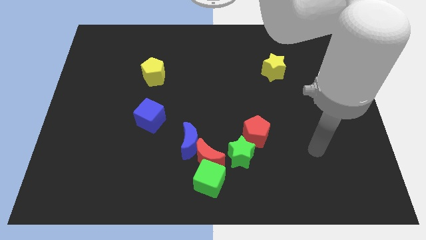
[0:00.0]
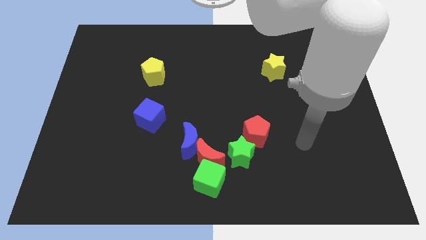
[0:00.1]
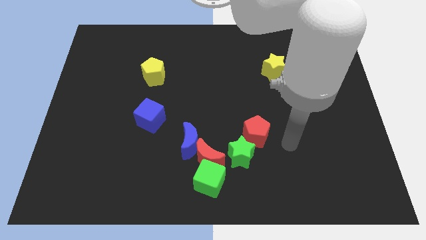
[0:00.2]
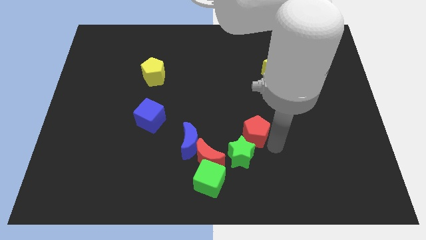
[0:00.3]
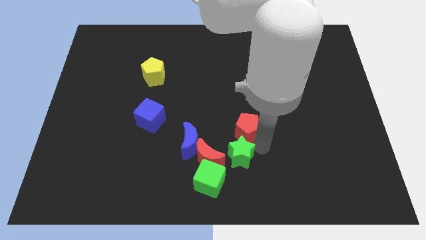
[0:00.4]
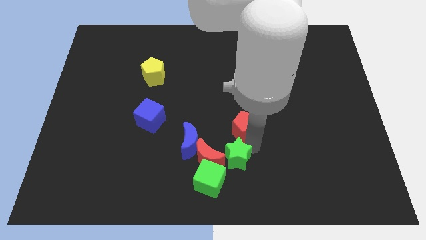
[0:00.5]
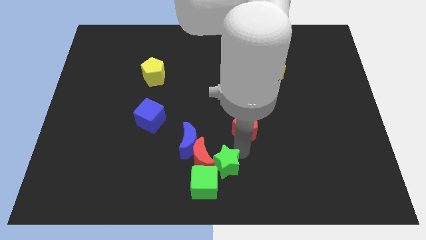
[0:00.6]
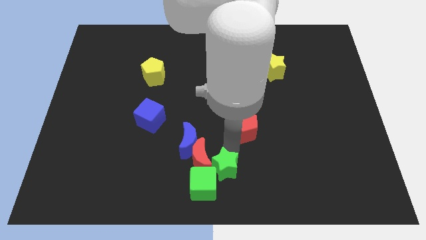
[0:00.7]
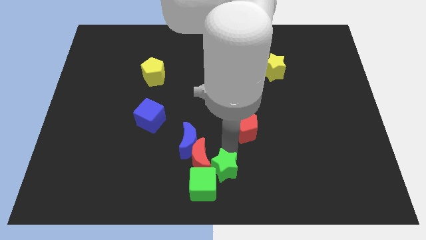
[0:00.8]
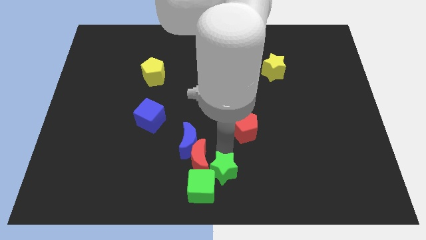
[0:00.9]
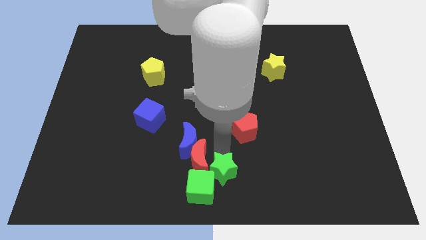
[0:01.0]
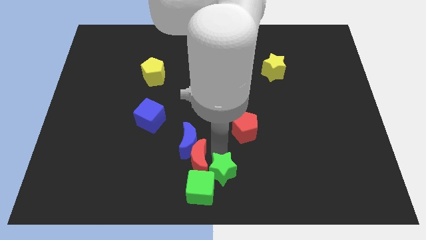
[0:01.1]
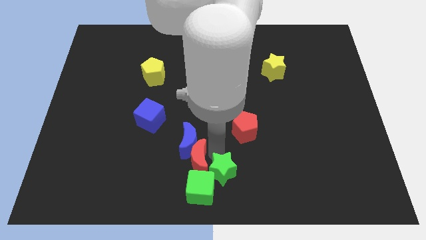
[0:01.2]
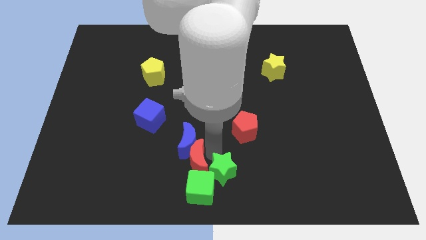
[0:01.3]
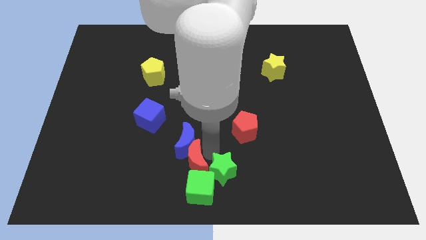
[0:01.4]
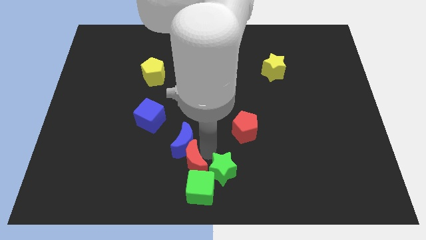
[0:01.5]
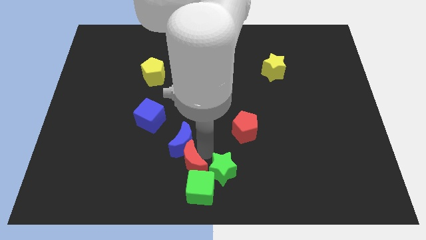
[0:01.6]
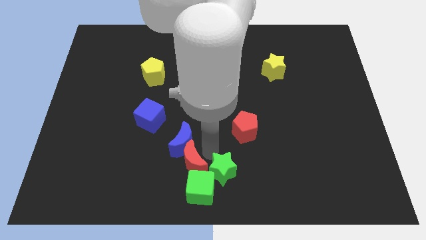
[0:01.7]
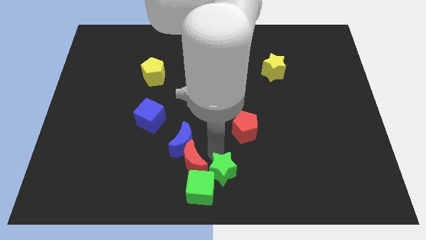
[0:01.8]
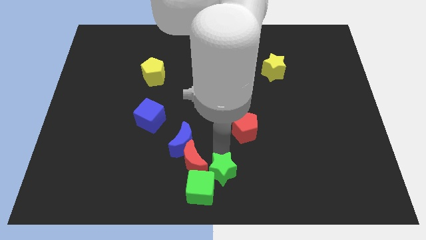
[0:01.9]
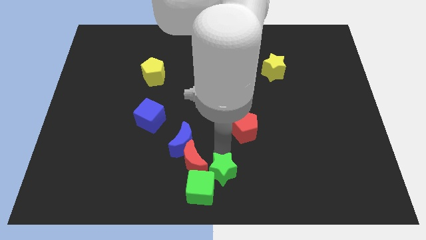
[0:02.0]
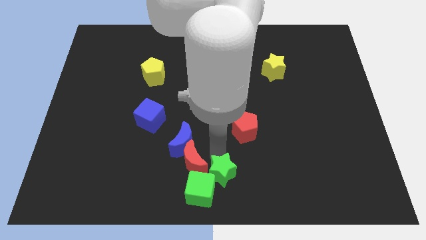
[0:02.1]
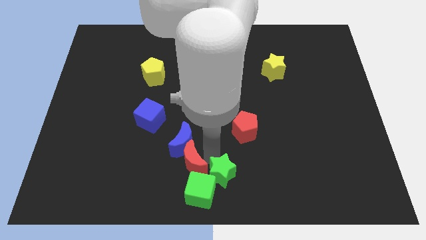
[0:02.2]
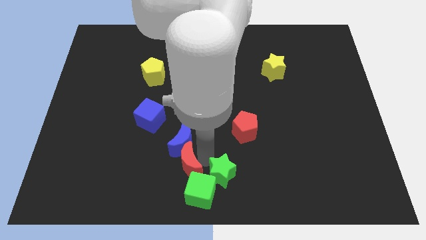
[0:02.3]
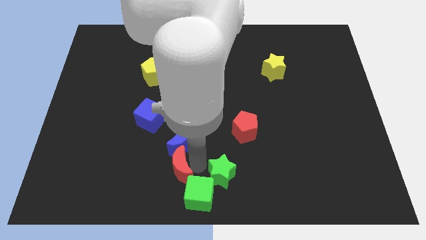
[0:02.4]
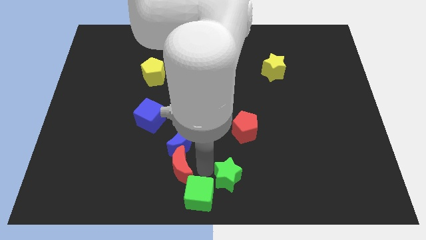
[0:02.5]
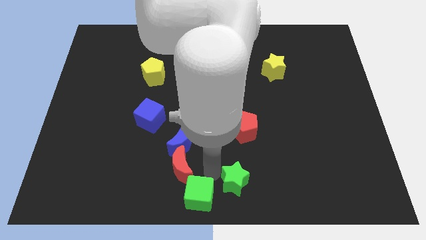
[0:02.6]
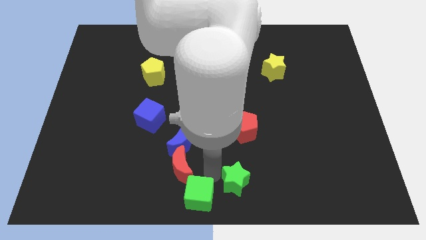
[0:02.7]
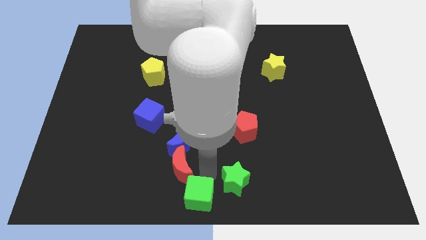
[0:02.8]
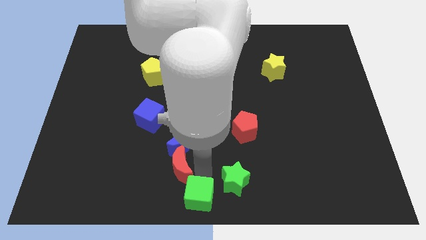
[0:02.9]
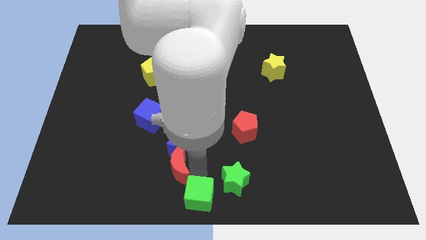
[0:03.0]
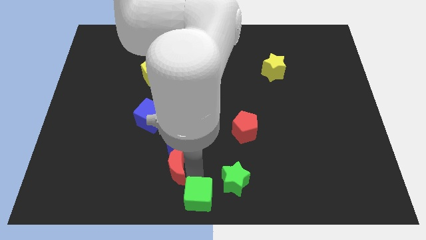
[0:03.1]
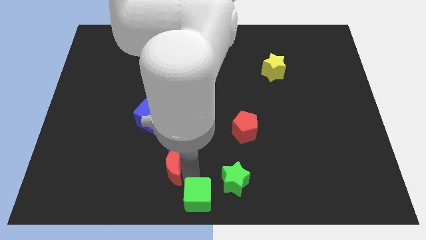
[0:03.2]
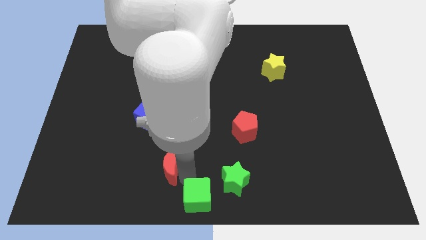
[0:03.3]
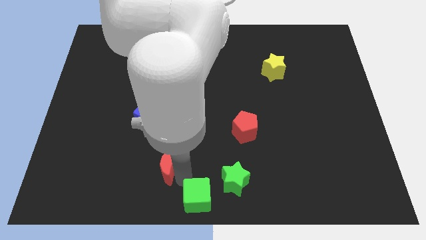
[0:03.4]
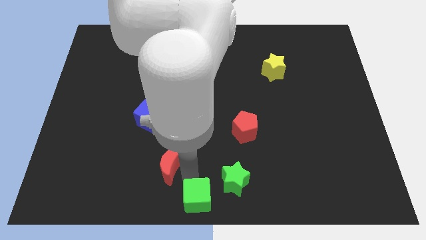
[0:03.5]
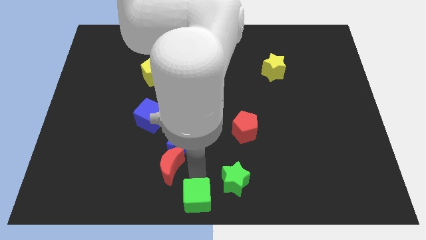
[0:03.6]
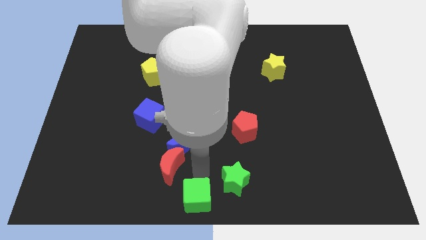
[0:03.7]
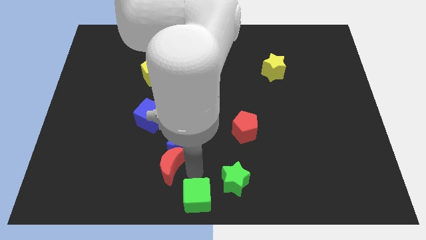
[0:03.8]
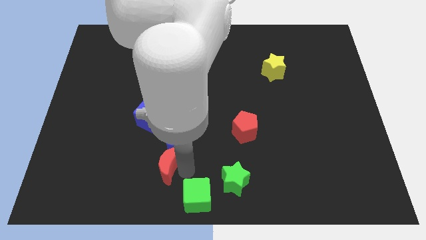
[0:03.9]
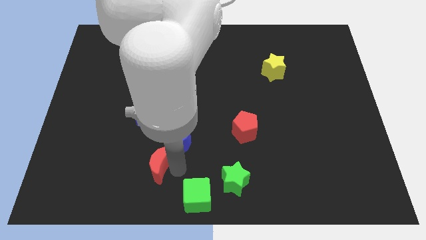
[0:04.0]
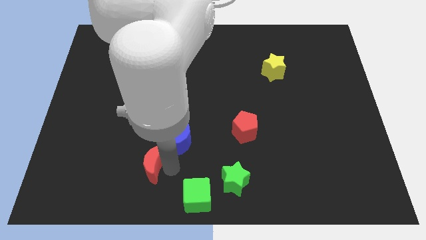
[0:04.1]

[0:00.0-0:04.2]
pull the red moon apart from the green cube, blue moon, and green star

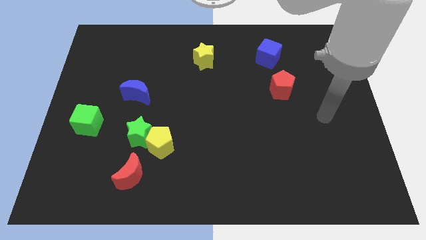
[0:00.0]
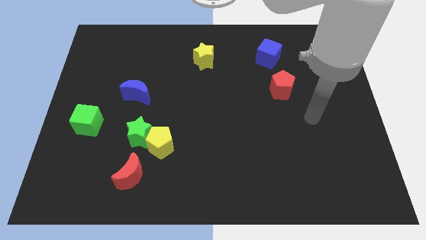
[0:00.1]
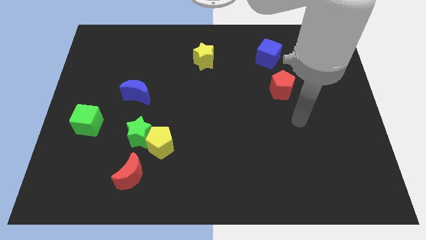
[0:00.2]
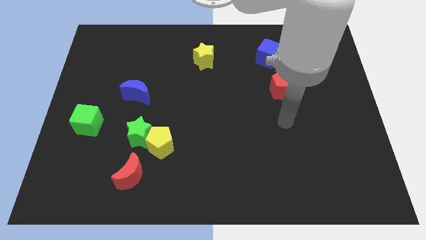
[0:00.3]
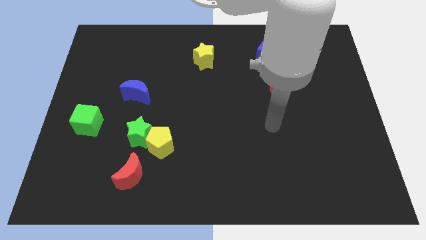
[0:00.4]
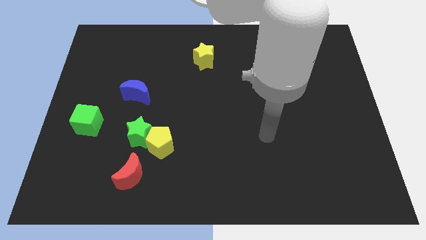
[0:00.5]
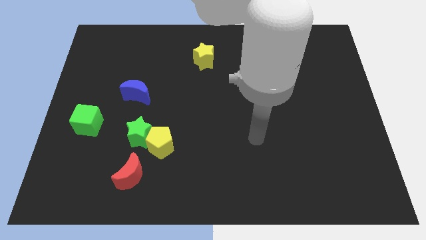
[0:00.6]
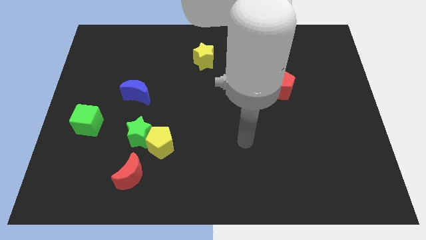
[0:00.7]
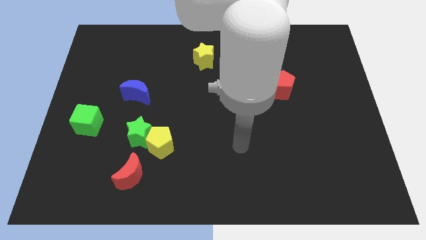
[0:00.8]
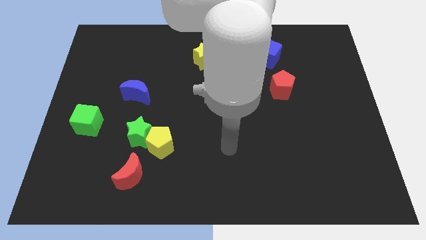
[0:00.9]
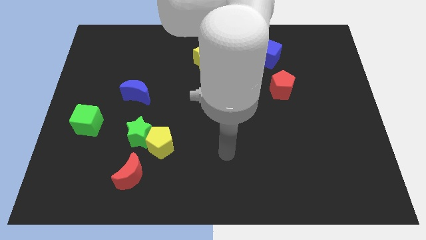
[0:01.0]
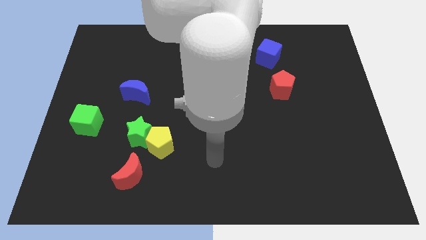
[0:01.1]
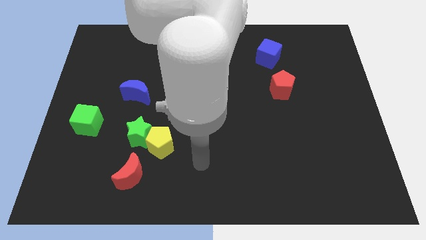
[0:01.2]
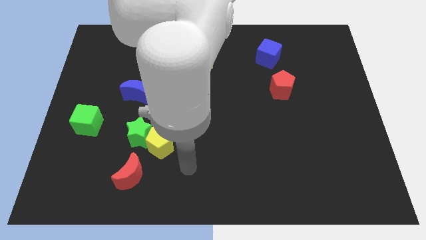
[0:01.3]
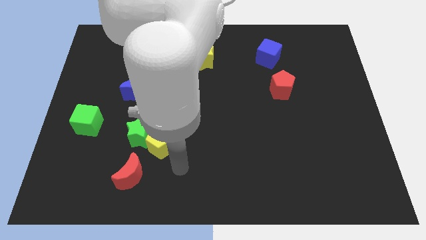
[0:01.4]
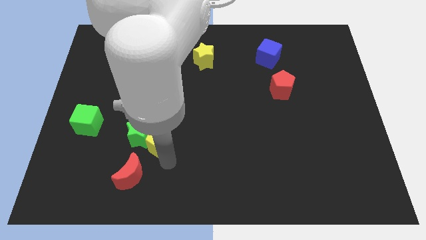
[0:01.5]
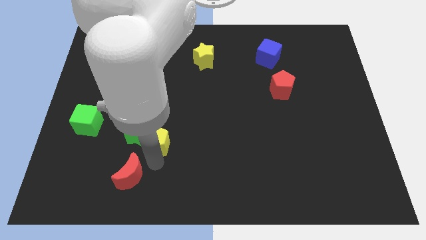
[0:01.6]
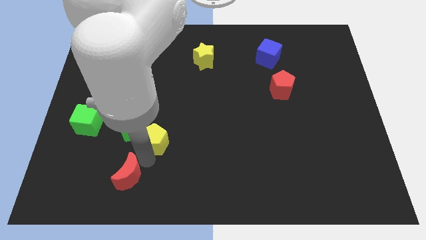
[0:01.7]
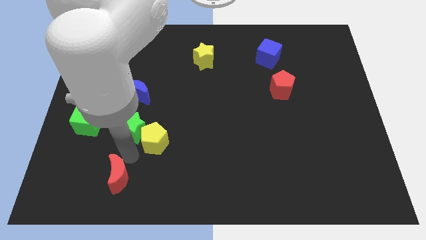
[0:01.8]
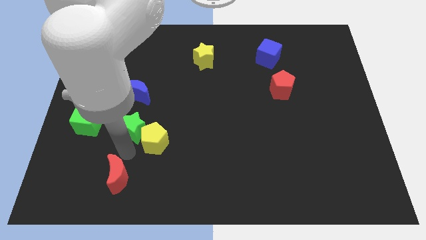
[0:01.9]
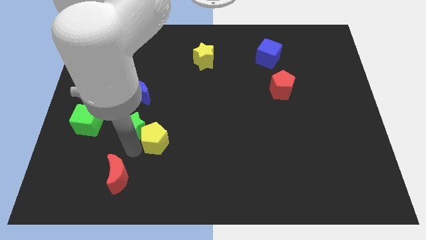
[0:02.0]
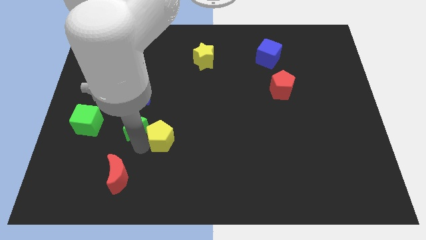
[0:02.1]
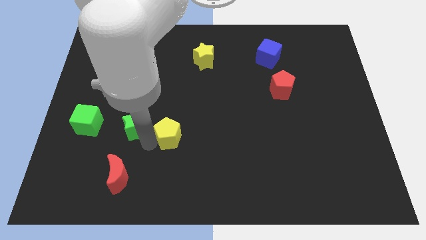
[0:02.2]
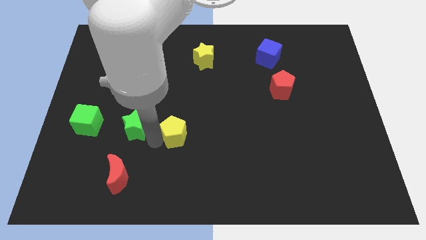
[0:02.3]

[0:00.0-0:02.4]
move the yellow pentagon away from the green star and red moon

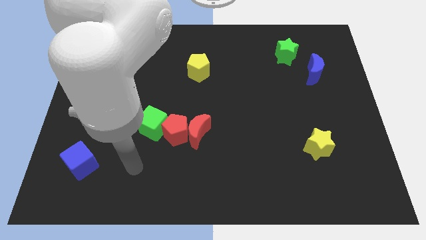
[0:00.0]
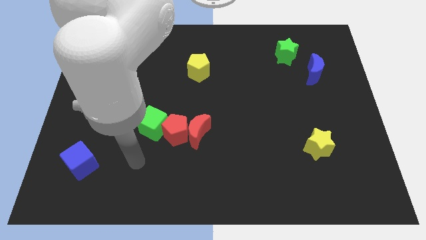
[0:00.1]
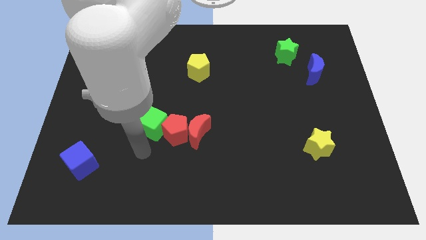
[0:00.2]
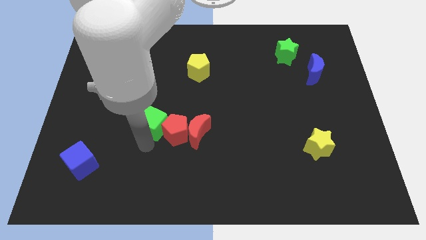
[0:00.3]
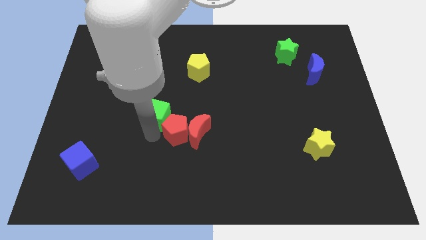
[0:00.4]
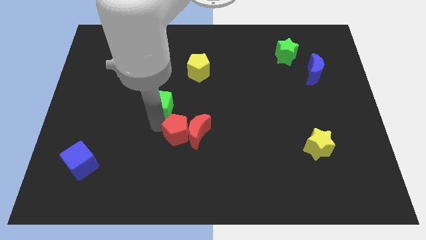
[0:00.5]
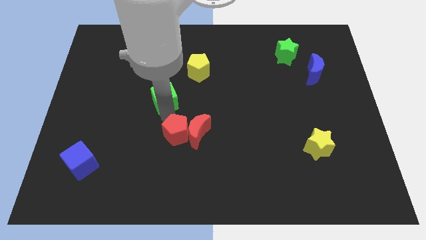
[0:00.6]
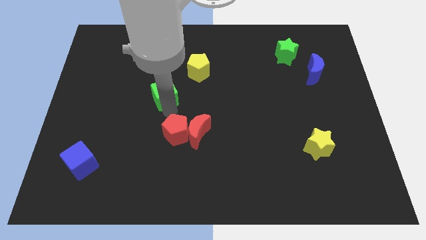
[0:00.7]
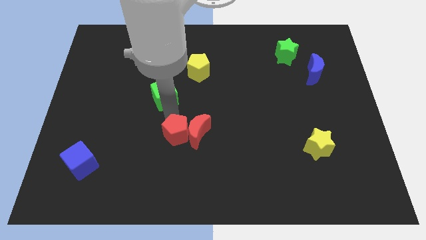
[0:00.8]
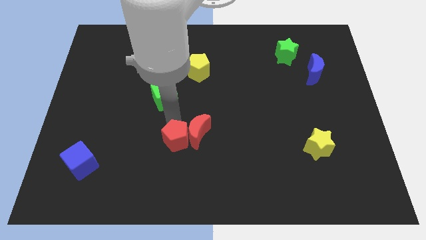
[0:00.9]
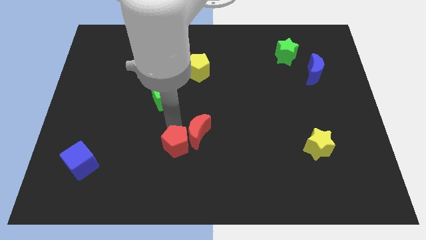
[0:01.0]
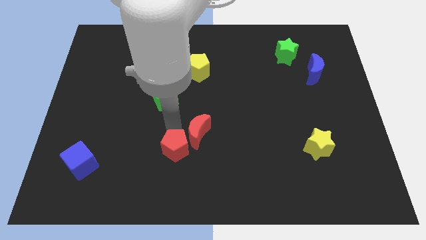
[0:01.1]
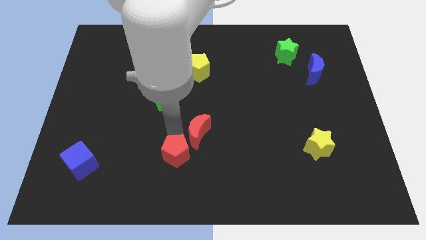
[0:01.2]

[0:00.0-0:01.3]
pull the red pentagon apart from the red moon and green cube

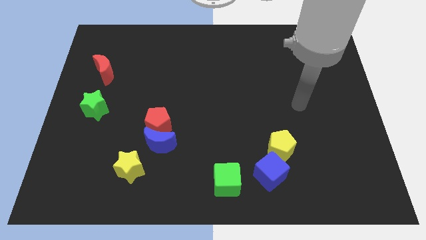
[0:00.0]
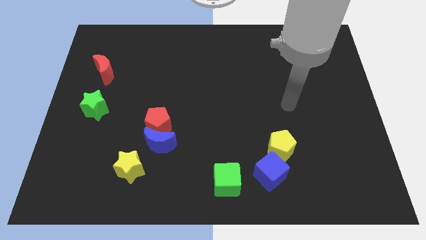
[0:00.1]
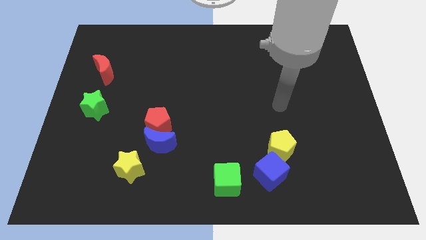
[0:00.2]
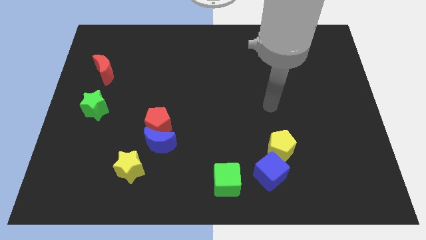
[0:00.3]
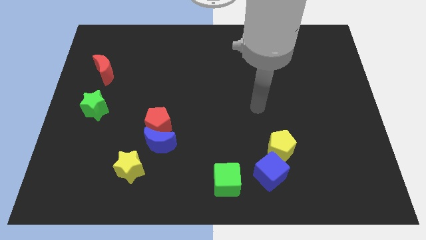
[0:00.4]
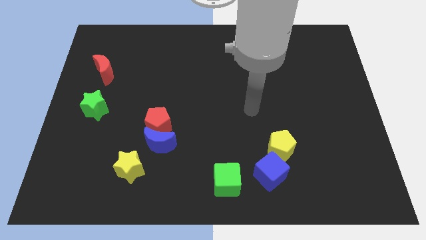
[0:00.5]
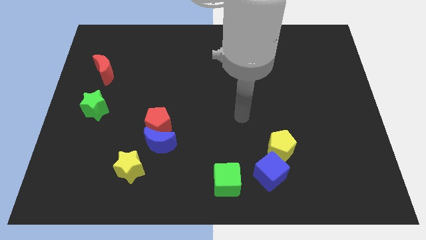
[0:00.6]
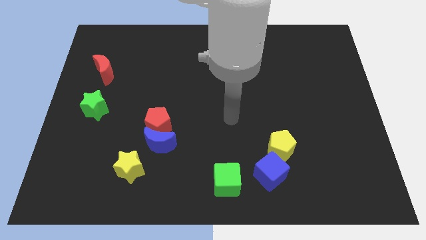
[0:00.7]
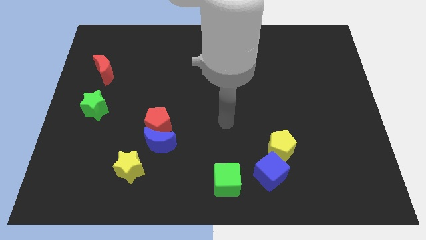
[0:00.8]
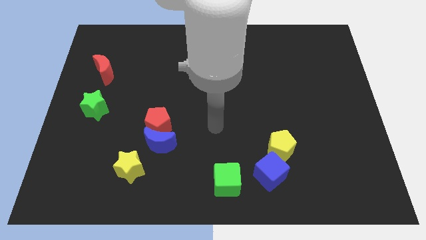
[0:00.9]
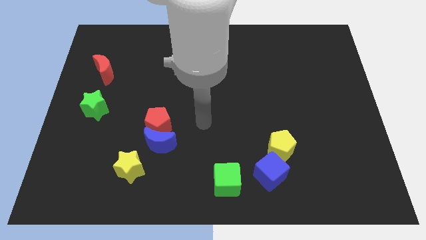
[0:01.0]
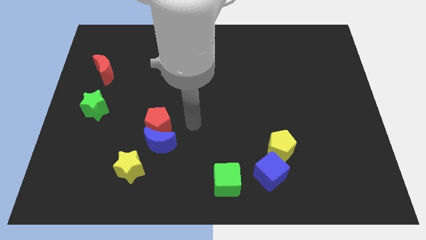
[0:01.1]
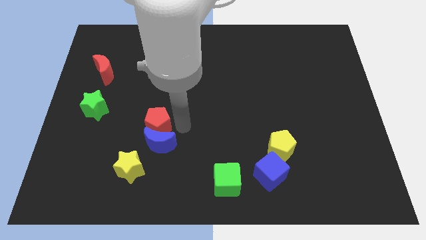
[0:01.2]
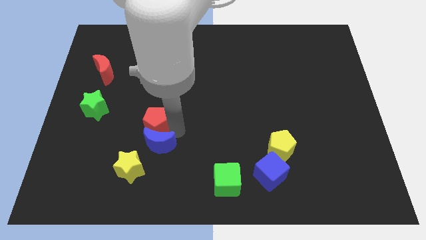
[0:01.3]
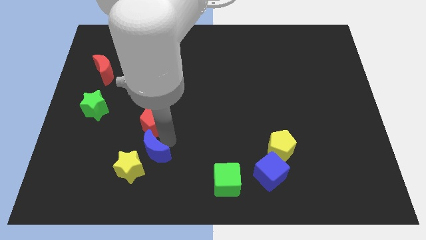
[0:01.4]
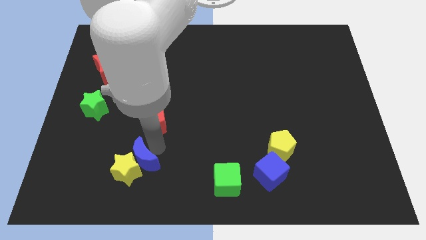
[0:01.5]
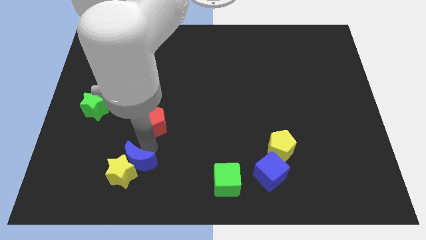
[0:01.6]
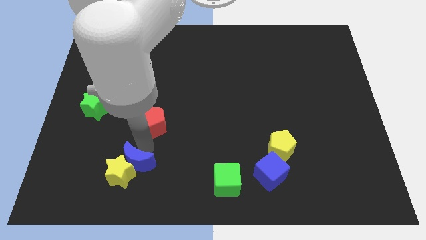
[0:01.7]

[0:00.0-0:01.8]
move the red pentagon away from the blue moon
